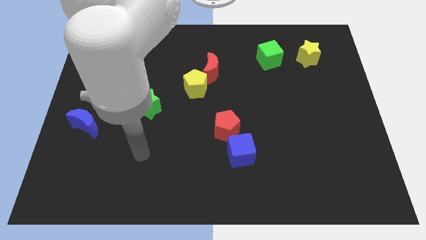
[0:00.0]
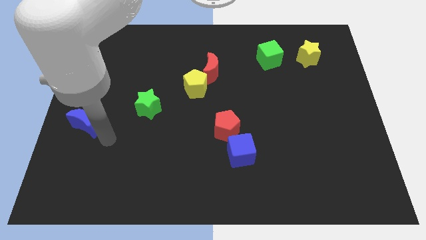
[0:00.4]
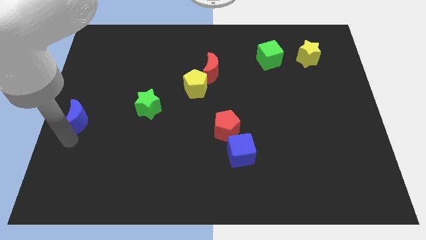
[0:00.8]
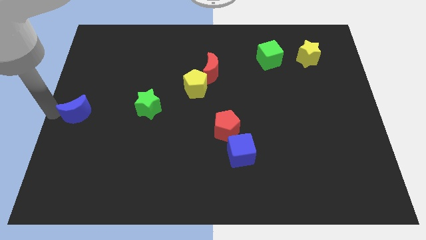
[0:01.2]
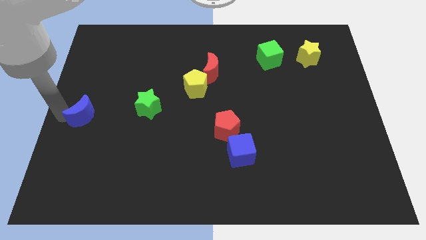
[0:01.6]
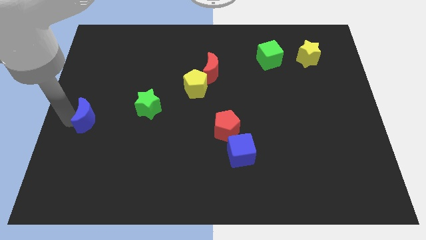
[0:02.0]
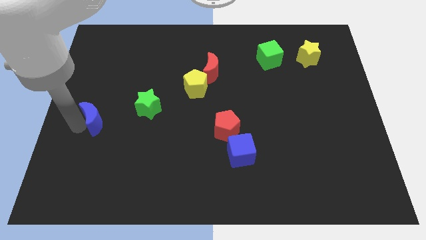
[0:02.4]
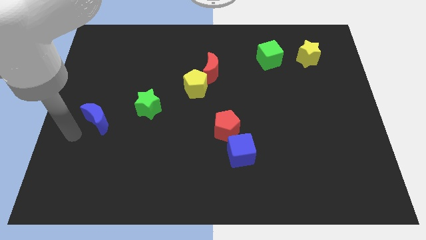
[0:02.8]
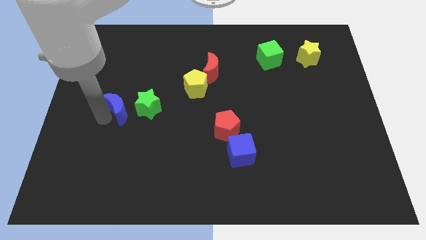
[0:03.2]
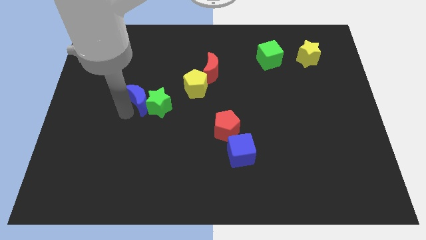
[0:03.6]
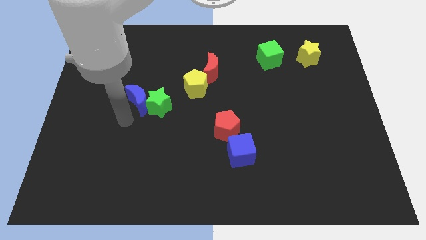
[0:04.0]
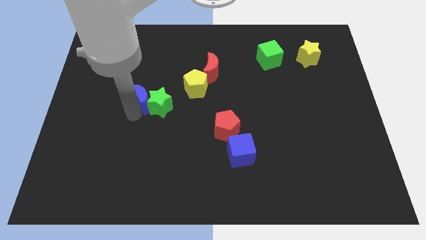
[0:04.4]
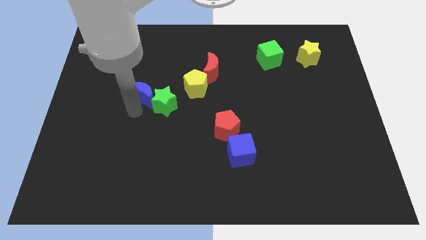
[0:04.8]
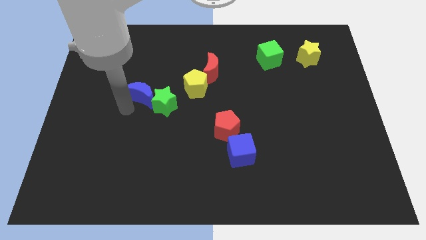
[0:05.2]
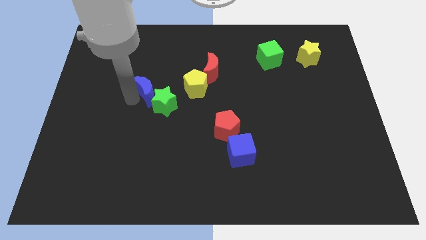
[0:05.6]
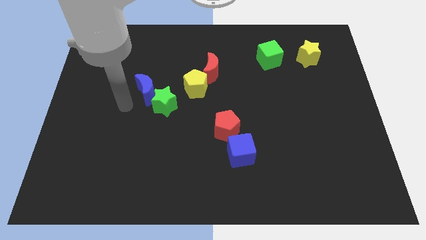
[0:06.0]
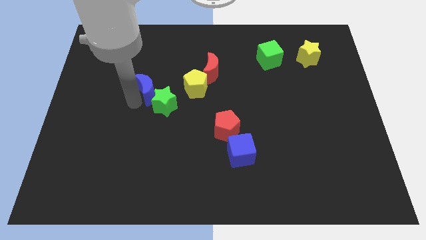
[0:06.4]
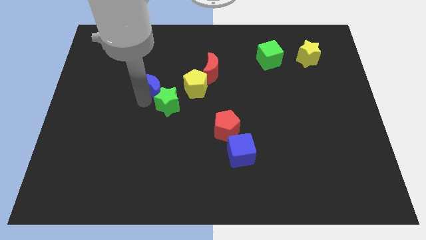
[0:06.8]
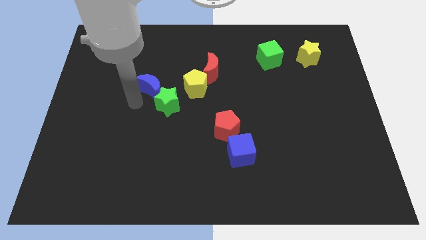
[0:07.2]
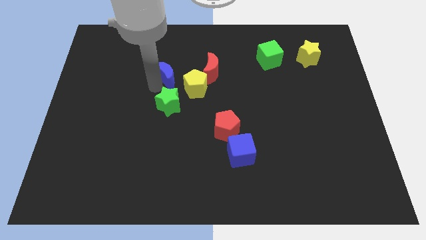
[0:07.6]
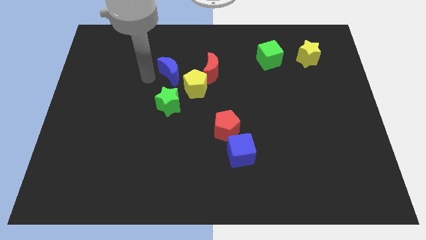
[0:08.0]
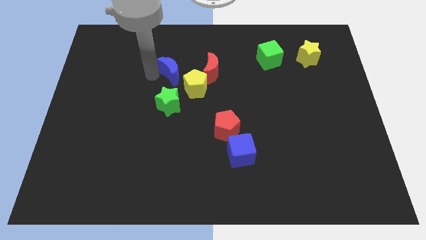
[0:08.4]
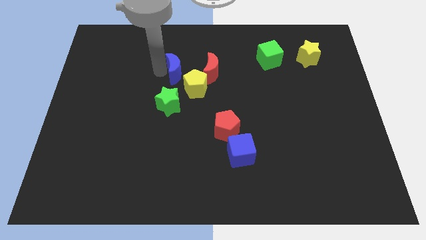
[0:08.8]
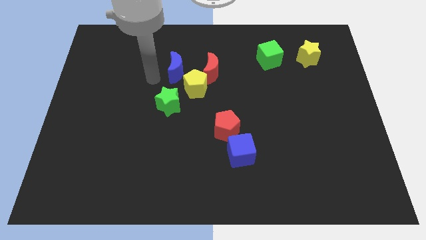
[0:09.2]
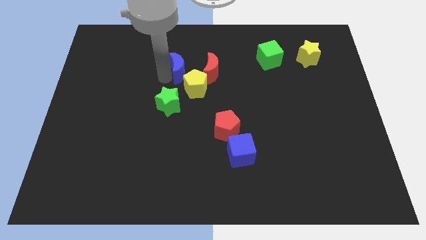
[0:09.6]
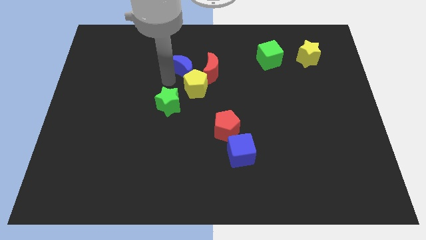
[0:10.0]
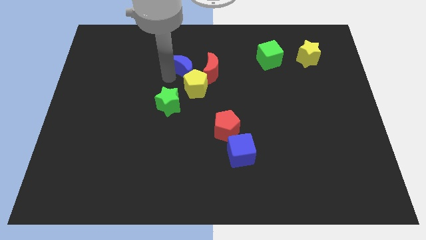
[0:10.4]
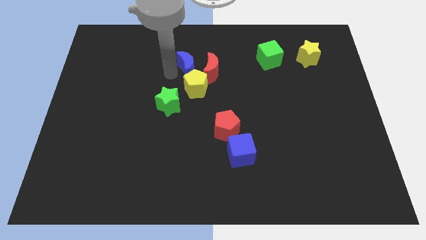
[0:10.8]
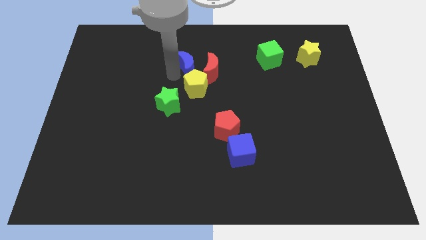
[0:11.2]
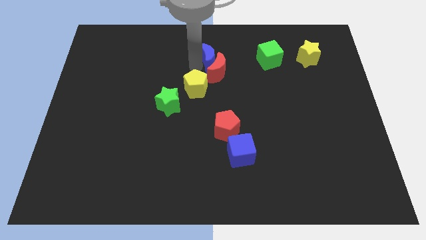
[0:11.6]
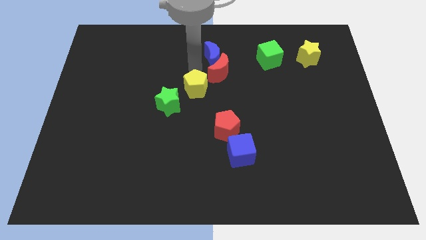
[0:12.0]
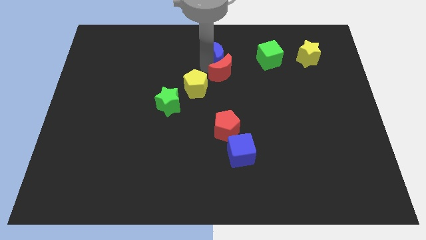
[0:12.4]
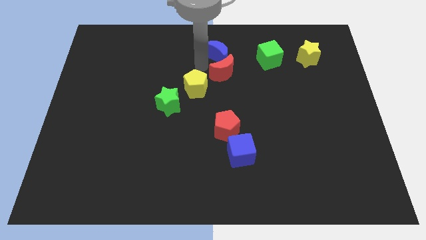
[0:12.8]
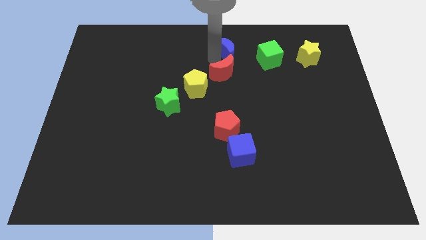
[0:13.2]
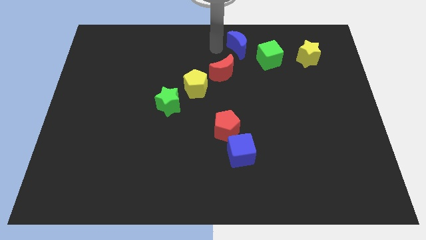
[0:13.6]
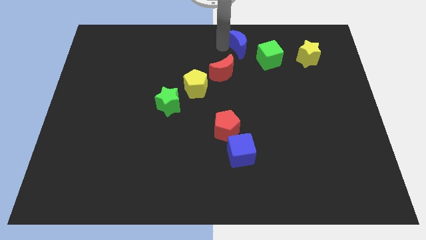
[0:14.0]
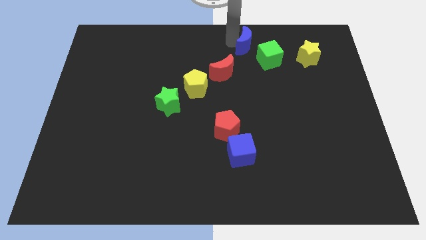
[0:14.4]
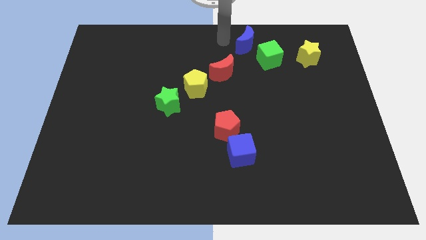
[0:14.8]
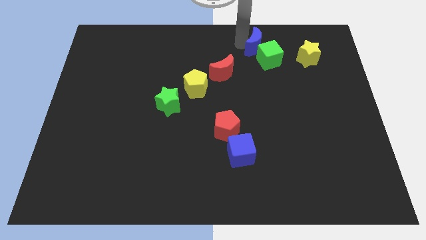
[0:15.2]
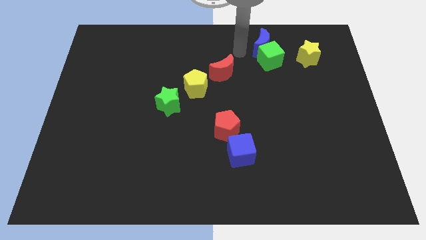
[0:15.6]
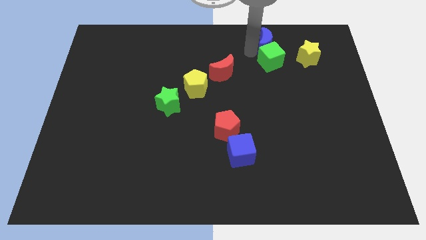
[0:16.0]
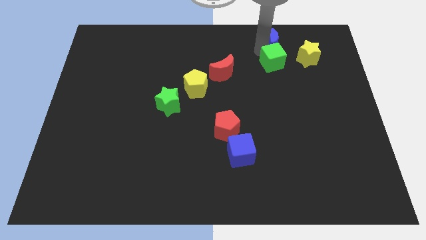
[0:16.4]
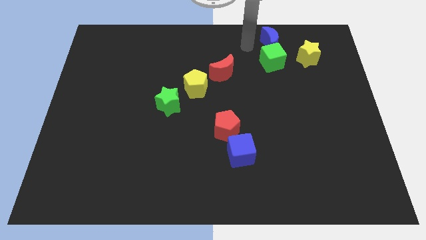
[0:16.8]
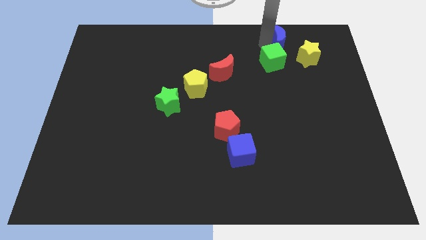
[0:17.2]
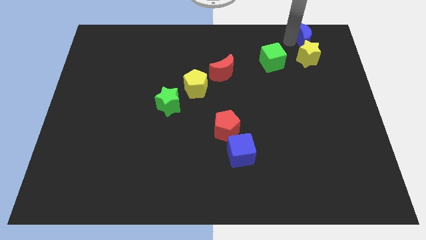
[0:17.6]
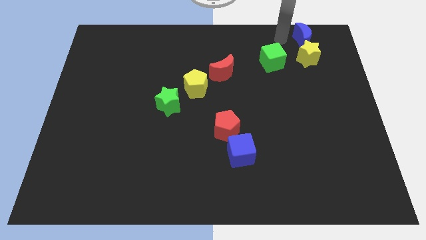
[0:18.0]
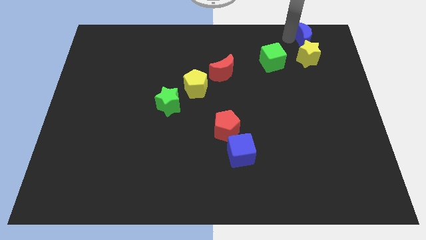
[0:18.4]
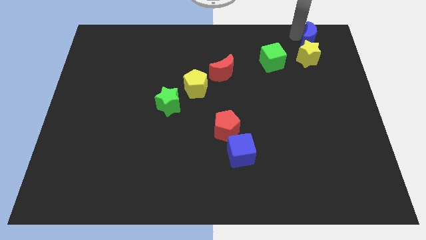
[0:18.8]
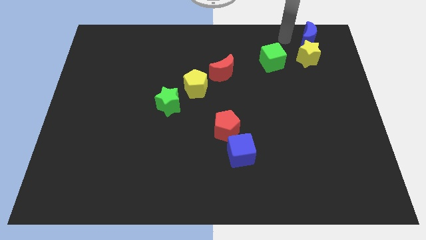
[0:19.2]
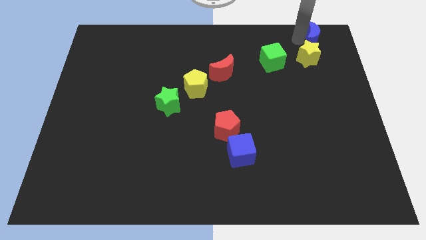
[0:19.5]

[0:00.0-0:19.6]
put the blue moon to the top right

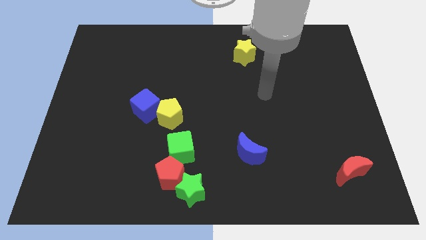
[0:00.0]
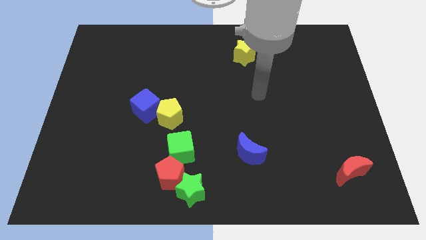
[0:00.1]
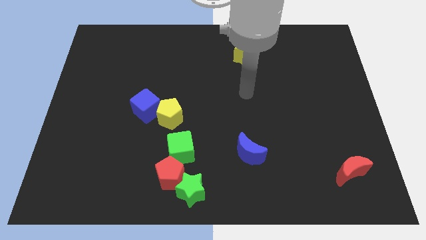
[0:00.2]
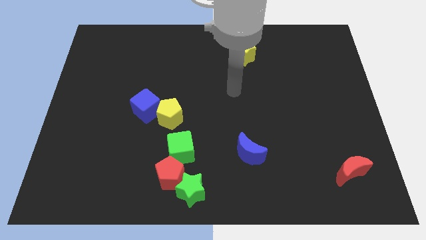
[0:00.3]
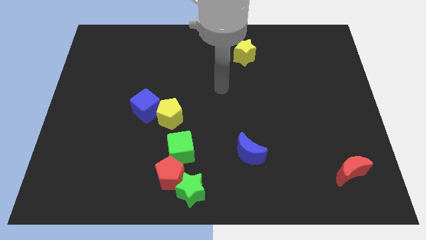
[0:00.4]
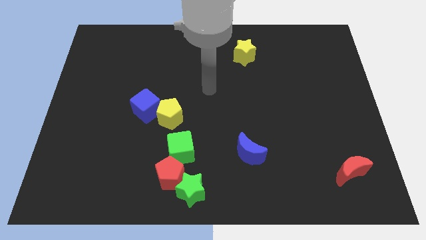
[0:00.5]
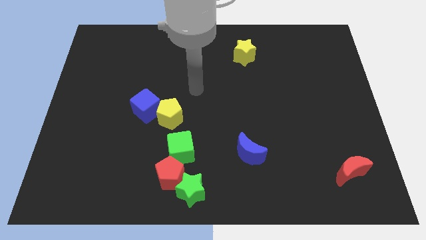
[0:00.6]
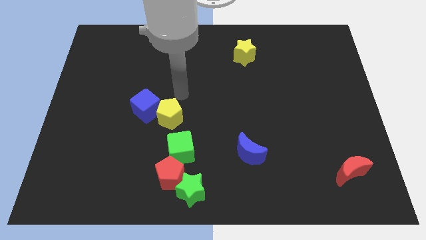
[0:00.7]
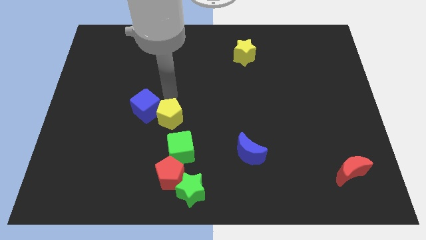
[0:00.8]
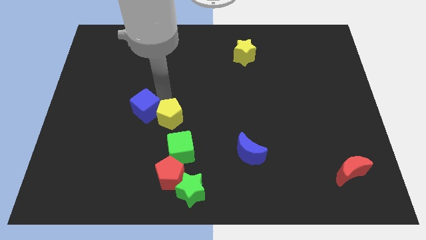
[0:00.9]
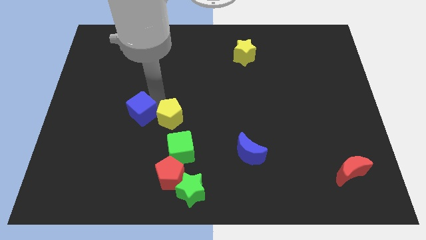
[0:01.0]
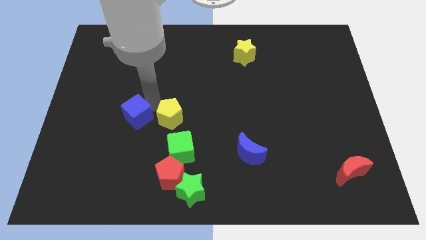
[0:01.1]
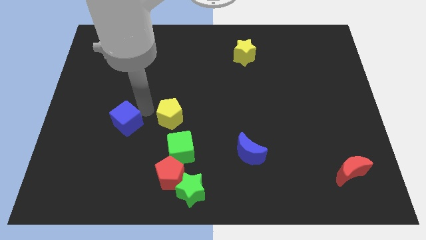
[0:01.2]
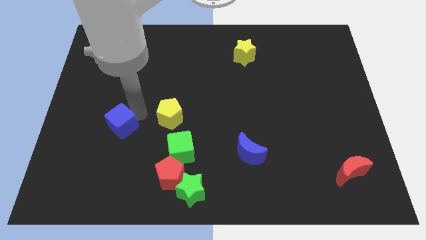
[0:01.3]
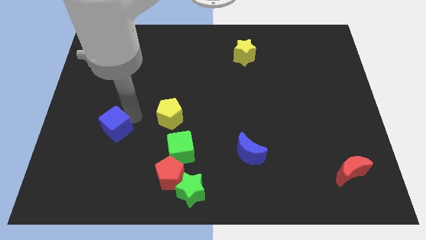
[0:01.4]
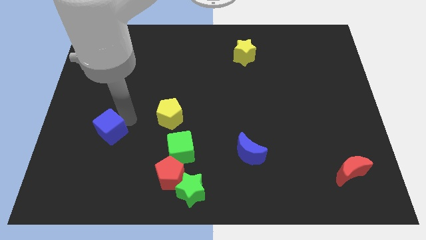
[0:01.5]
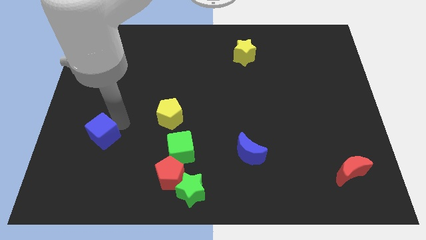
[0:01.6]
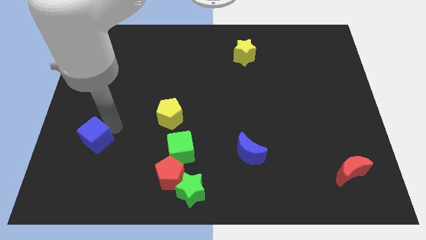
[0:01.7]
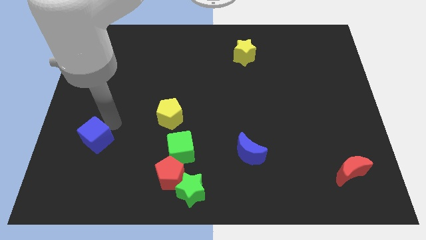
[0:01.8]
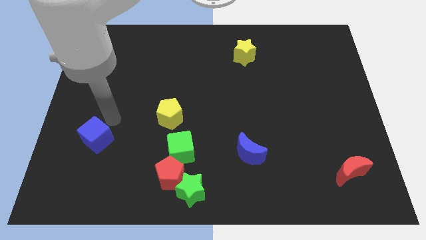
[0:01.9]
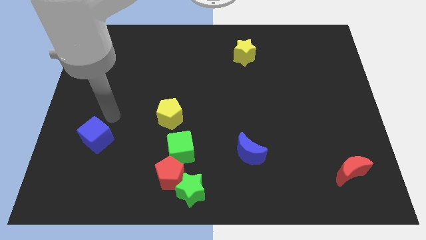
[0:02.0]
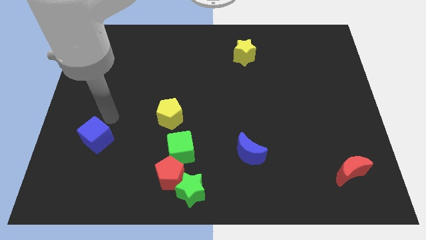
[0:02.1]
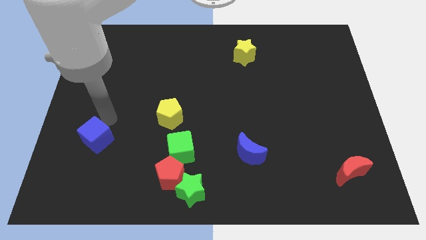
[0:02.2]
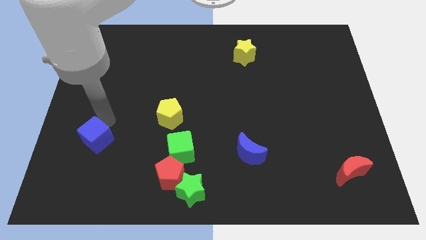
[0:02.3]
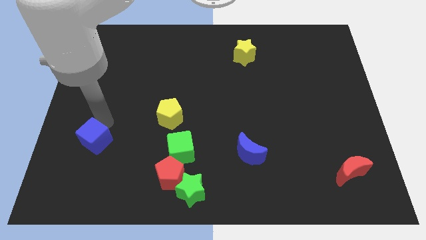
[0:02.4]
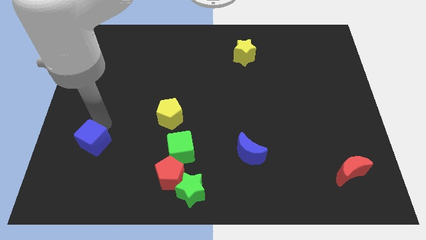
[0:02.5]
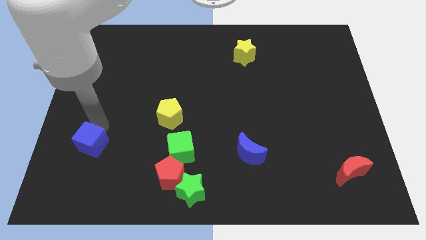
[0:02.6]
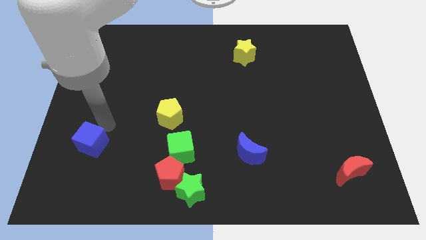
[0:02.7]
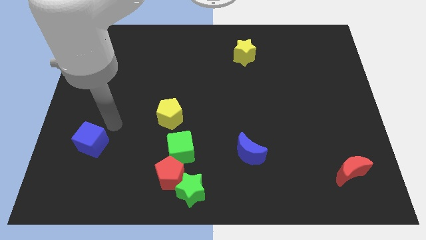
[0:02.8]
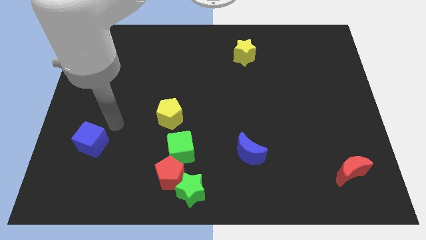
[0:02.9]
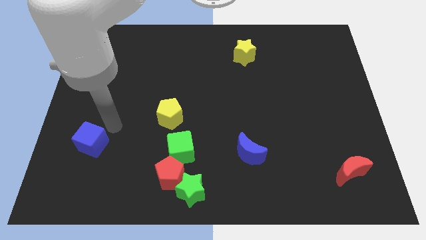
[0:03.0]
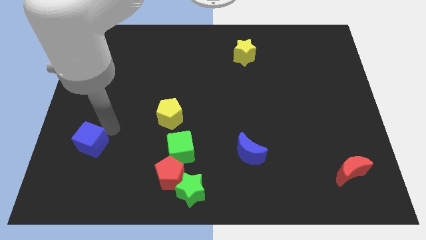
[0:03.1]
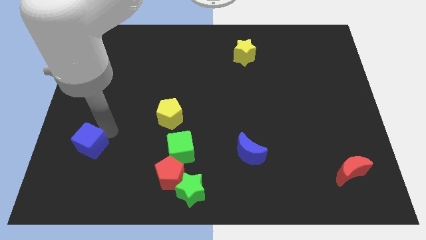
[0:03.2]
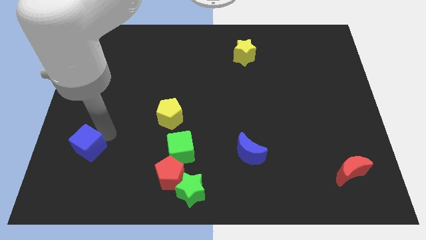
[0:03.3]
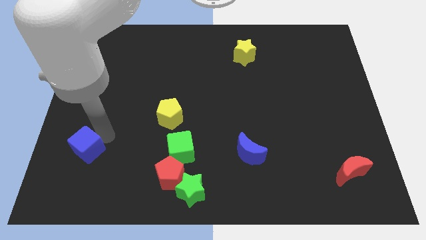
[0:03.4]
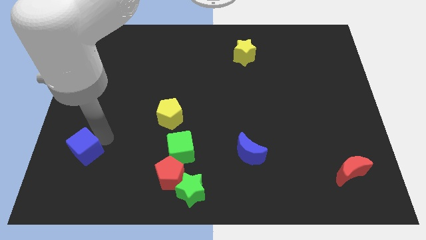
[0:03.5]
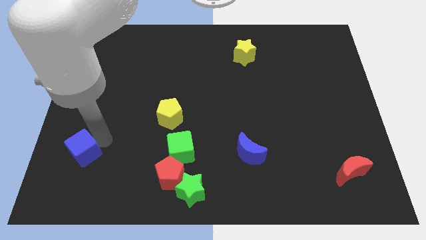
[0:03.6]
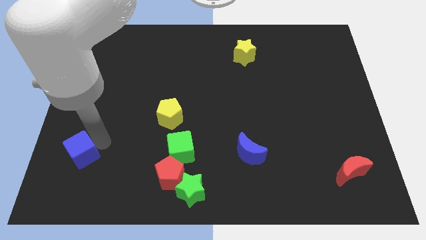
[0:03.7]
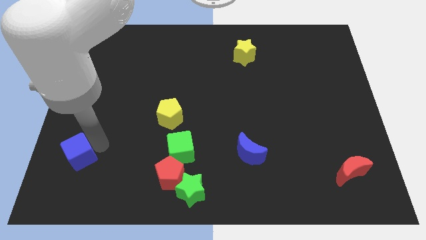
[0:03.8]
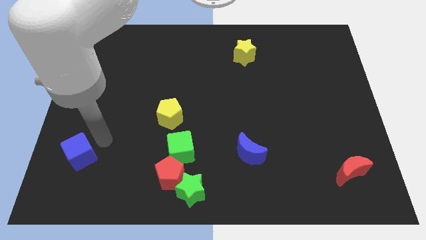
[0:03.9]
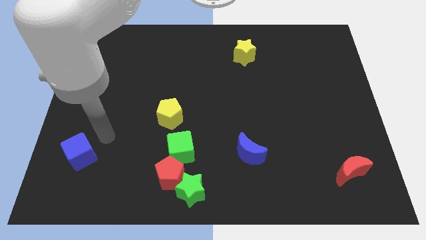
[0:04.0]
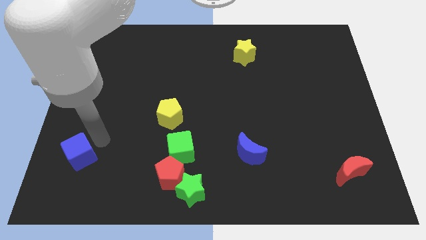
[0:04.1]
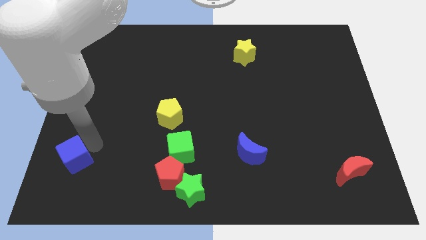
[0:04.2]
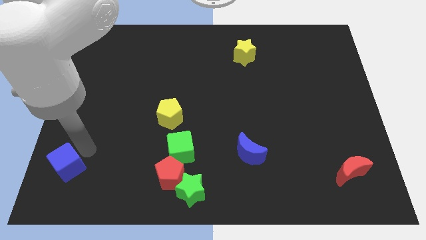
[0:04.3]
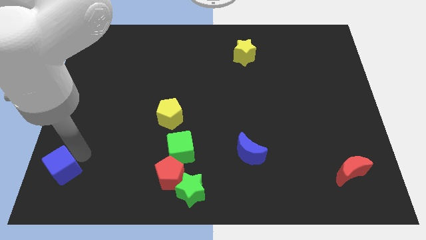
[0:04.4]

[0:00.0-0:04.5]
put the blue cube to the bottom left corner
